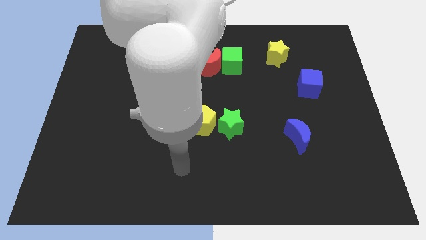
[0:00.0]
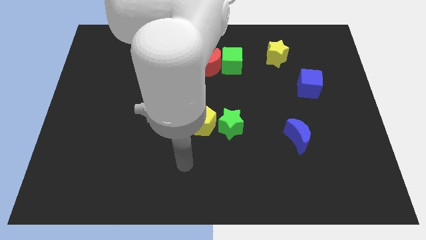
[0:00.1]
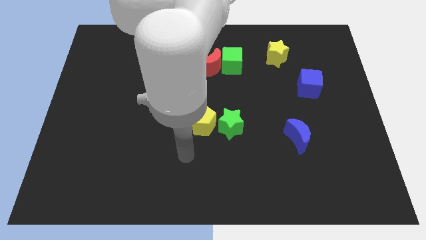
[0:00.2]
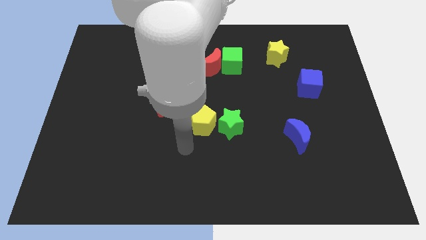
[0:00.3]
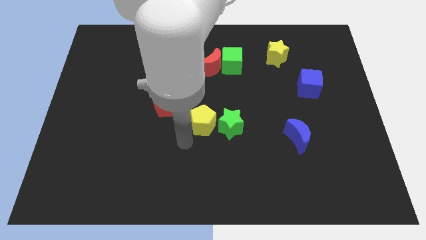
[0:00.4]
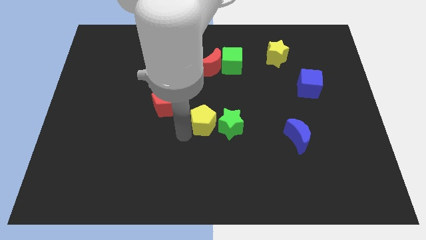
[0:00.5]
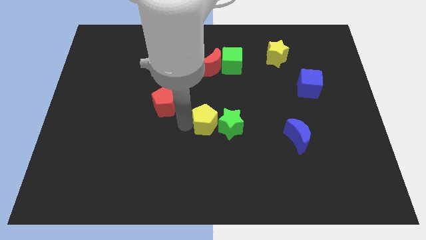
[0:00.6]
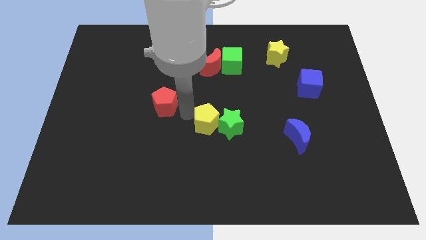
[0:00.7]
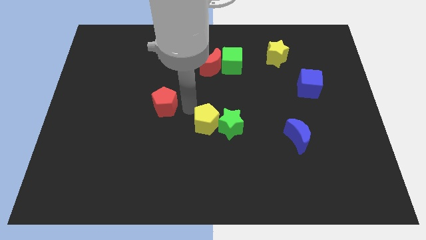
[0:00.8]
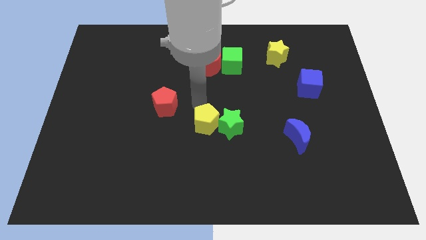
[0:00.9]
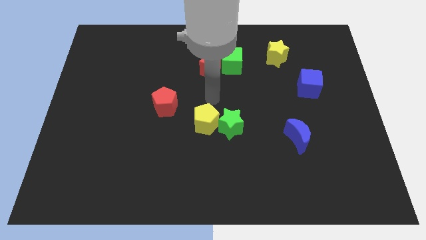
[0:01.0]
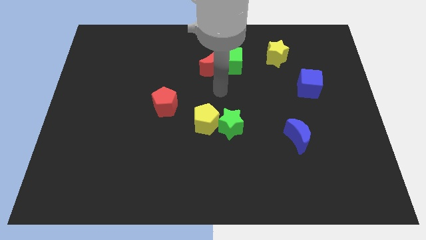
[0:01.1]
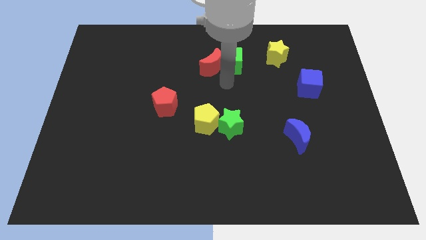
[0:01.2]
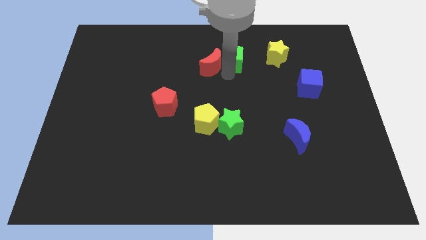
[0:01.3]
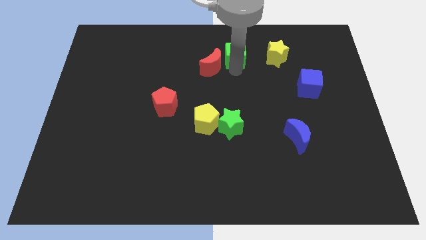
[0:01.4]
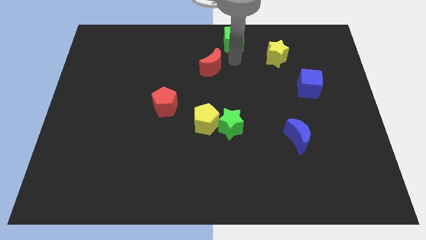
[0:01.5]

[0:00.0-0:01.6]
separate the red moon from the green cube

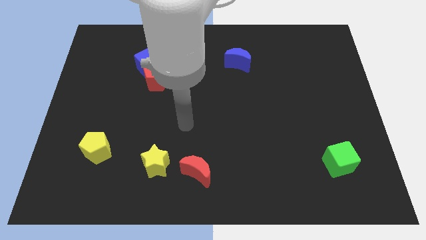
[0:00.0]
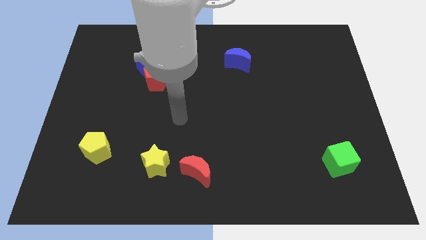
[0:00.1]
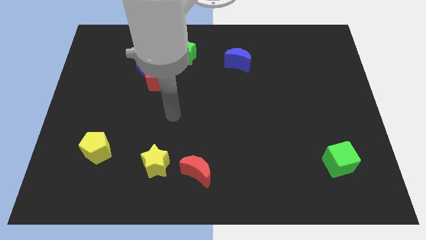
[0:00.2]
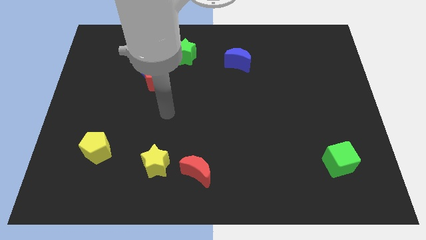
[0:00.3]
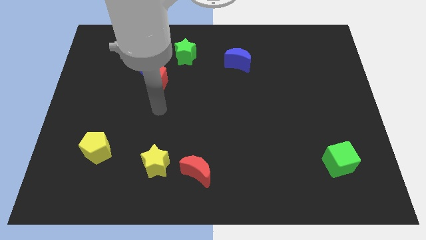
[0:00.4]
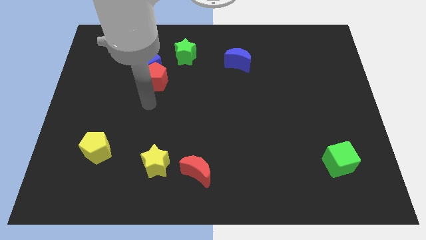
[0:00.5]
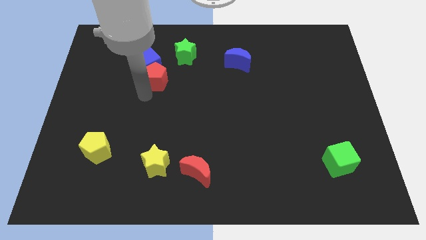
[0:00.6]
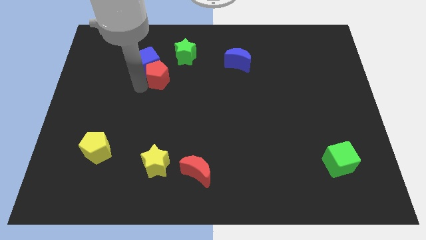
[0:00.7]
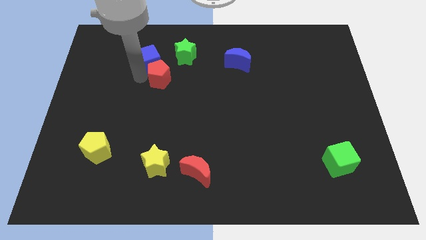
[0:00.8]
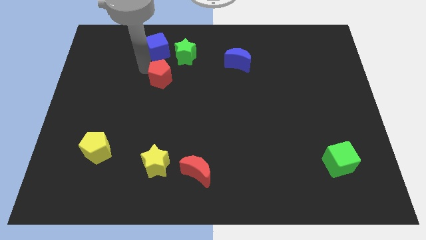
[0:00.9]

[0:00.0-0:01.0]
pull the red pentagon apart from the blue cube

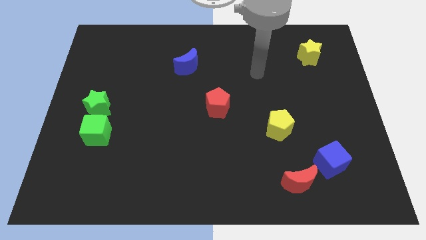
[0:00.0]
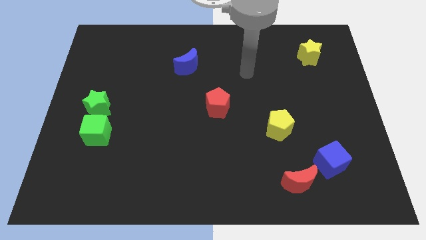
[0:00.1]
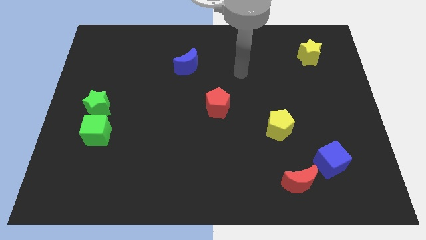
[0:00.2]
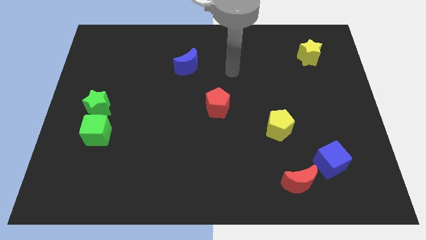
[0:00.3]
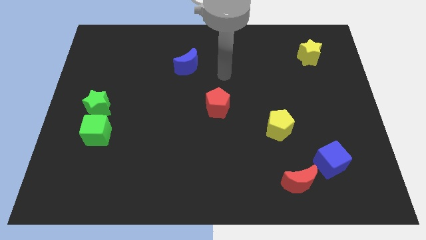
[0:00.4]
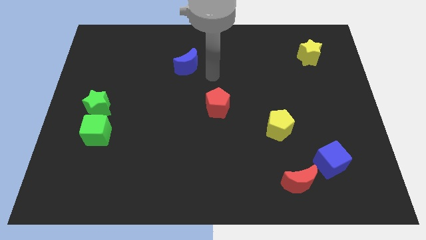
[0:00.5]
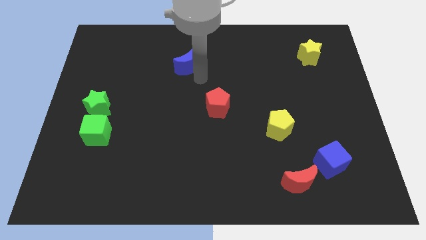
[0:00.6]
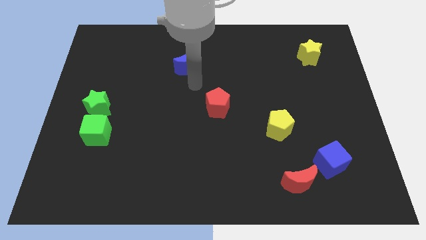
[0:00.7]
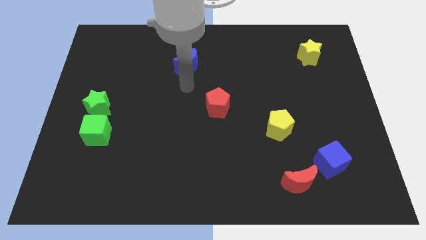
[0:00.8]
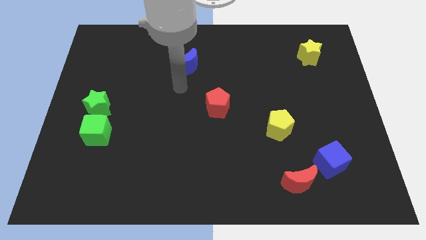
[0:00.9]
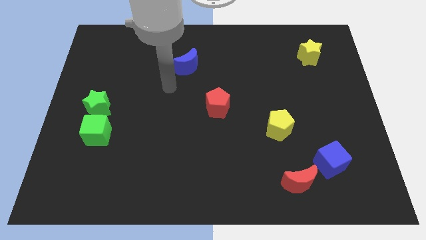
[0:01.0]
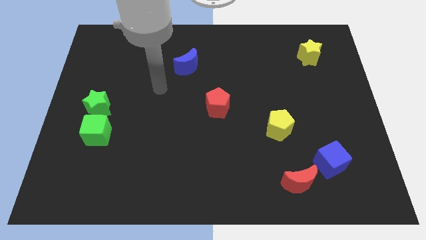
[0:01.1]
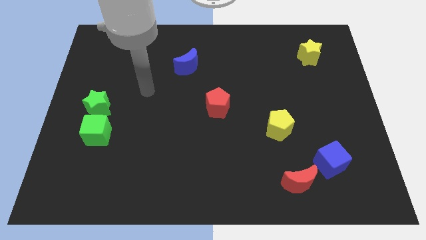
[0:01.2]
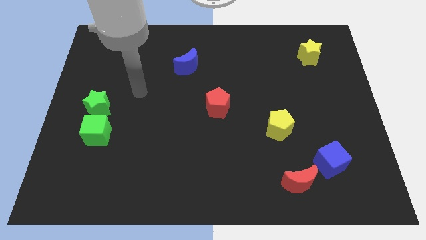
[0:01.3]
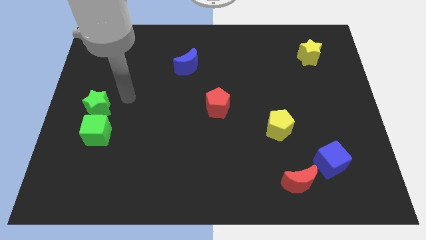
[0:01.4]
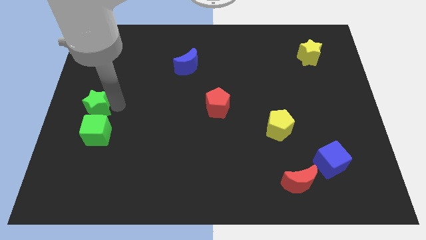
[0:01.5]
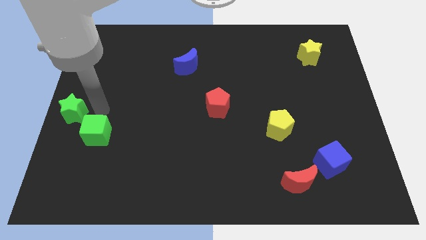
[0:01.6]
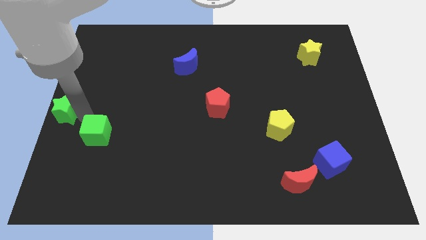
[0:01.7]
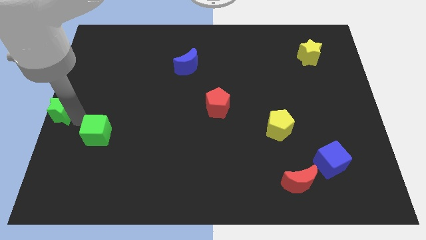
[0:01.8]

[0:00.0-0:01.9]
pull the green cube apart from the green star

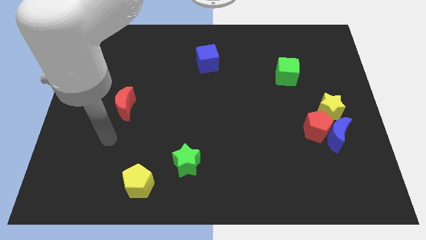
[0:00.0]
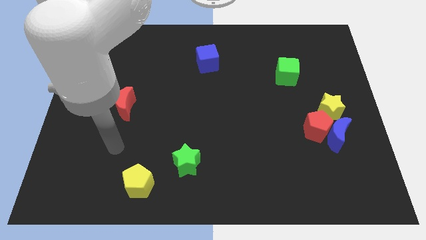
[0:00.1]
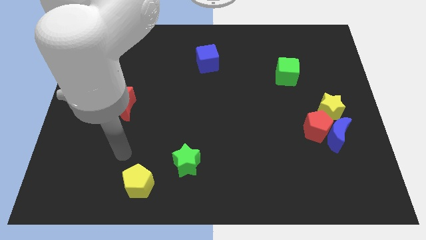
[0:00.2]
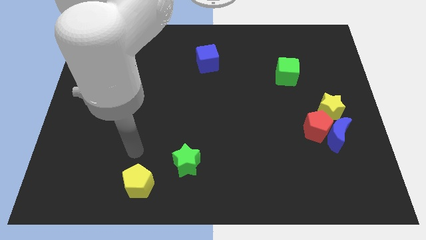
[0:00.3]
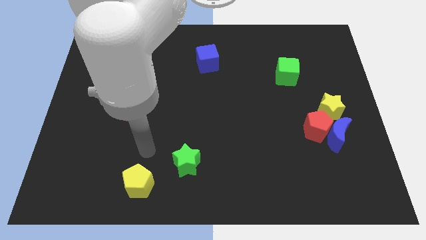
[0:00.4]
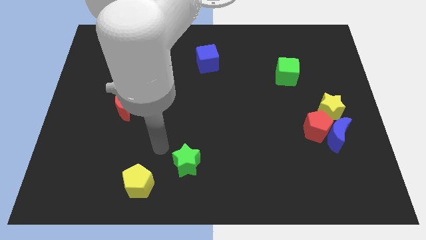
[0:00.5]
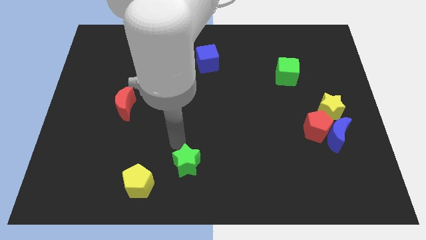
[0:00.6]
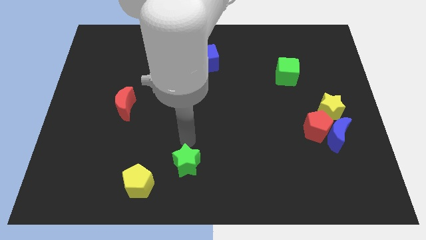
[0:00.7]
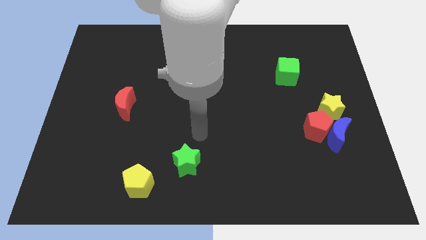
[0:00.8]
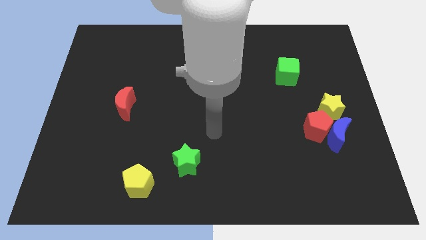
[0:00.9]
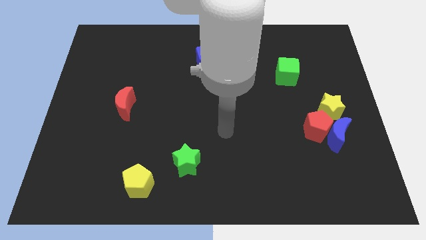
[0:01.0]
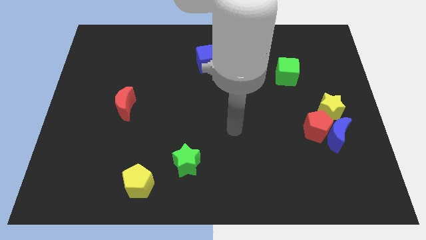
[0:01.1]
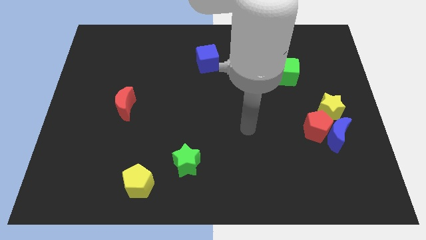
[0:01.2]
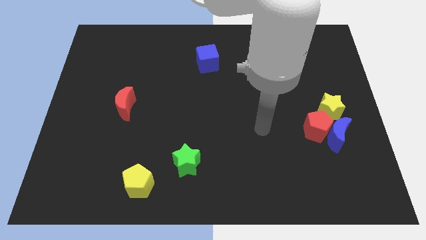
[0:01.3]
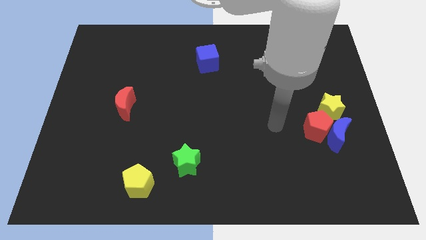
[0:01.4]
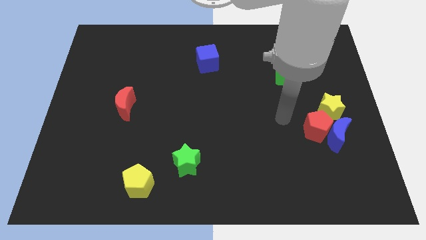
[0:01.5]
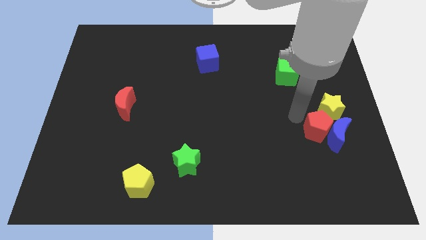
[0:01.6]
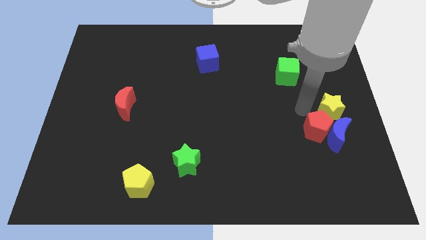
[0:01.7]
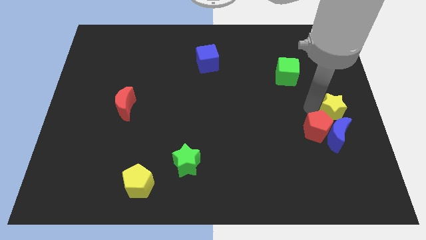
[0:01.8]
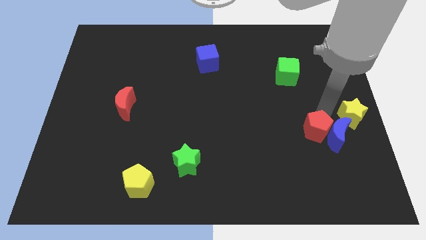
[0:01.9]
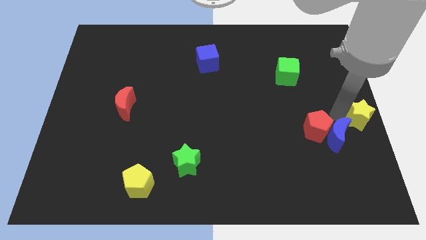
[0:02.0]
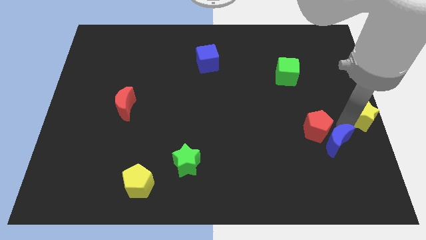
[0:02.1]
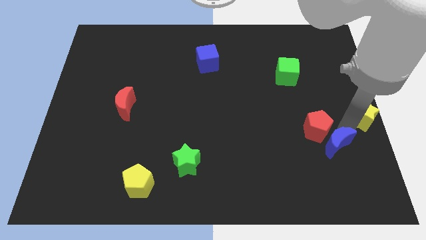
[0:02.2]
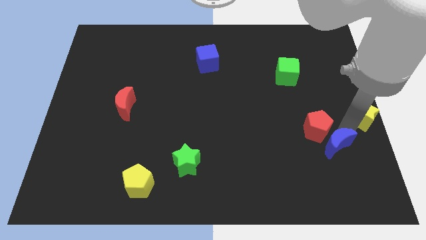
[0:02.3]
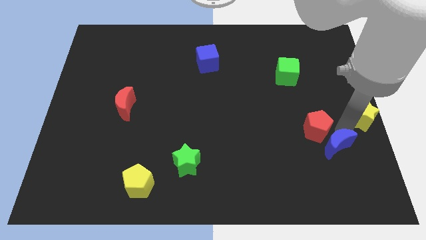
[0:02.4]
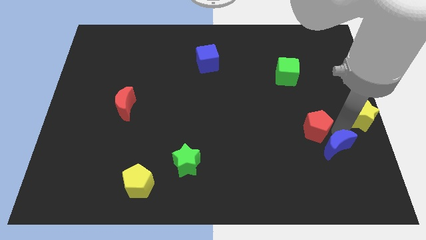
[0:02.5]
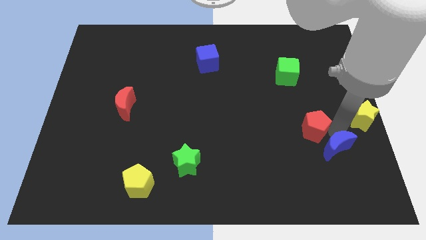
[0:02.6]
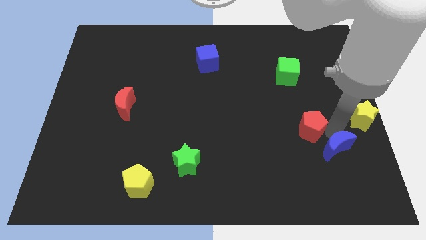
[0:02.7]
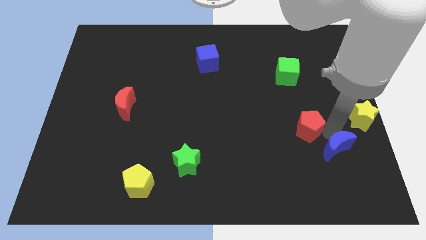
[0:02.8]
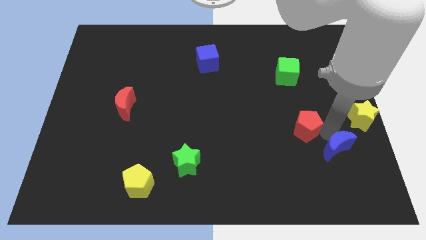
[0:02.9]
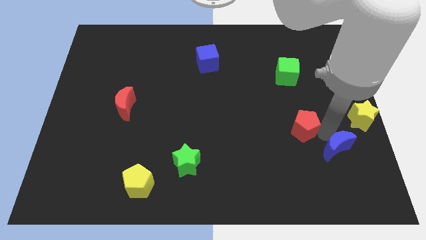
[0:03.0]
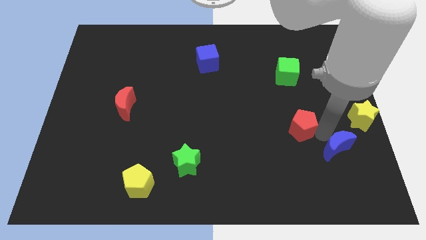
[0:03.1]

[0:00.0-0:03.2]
separate the red pentagon from the blue moon and yellow star

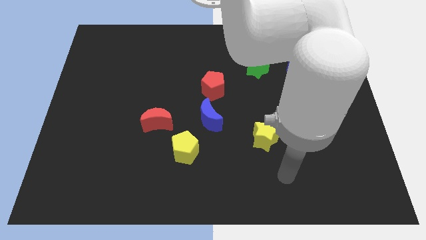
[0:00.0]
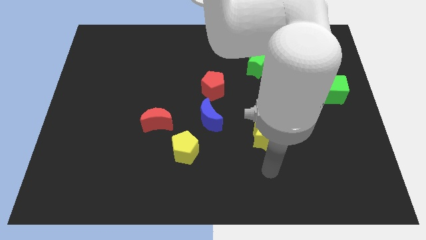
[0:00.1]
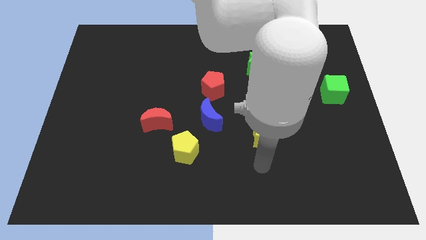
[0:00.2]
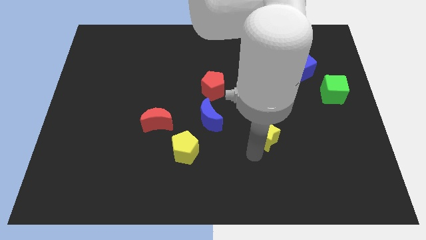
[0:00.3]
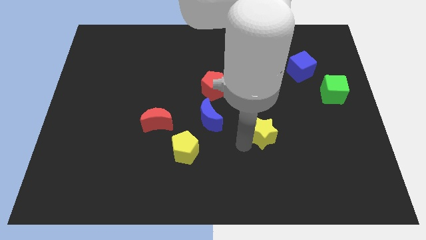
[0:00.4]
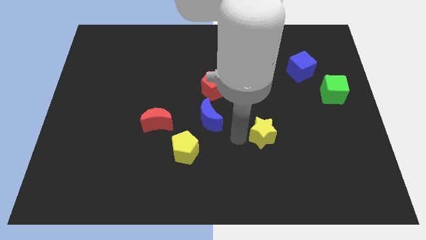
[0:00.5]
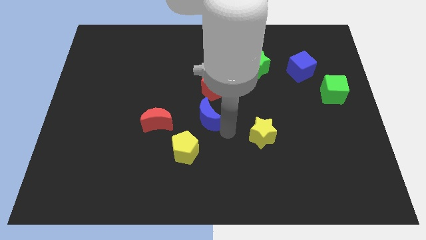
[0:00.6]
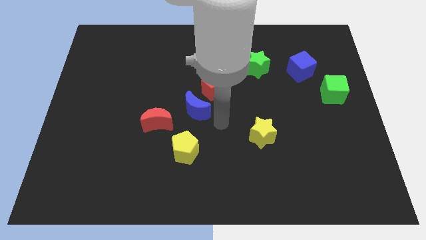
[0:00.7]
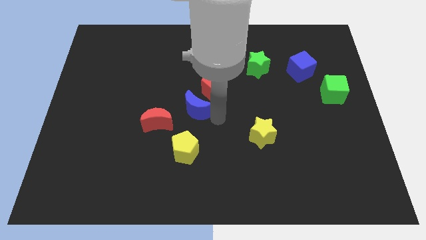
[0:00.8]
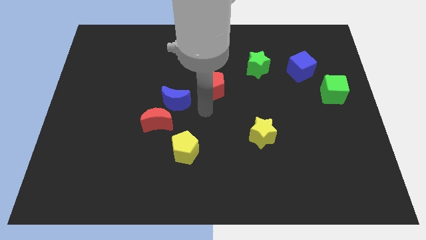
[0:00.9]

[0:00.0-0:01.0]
separate the red pentagon from the blue moon

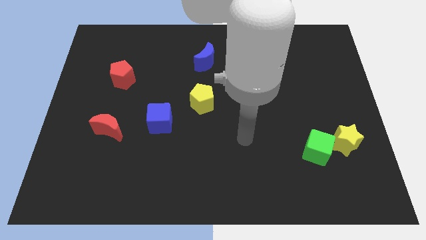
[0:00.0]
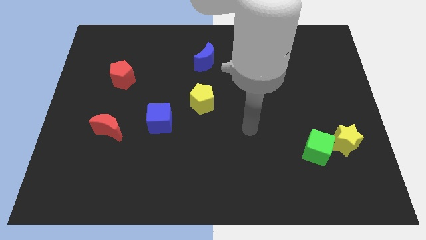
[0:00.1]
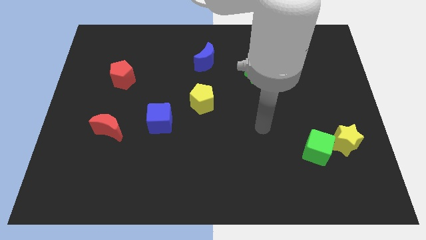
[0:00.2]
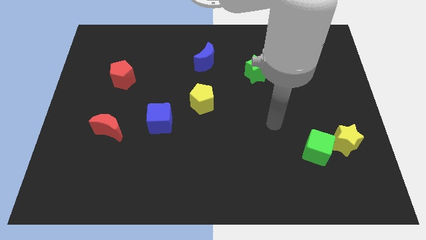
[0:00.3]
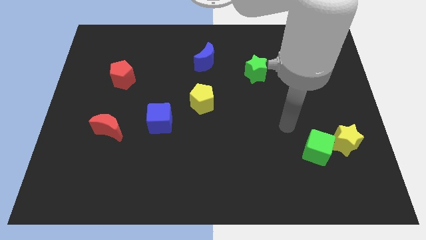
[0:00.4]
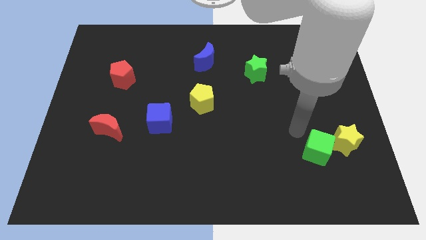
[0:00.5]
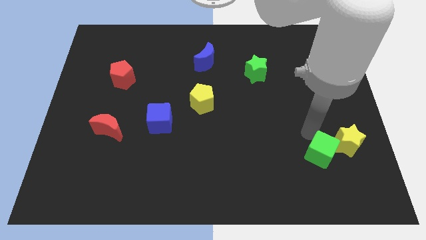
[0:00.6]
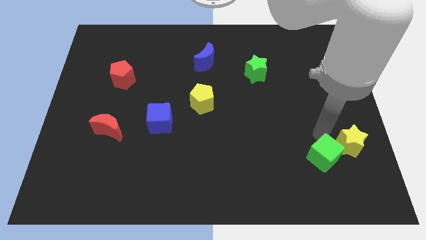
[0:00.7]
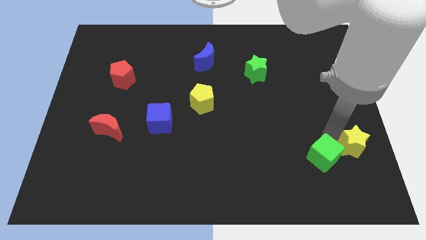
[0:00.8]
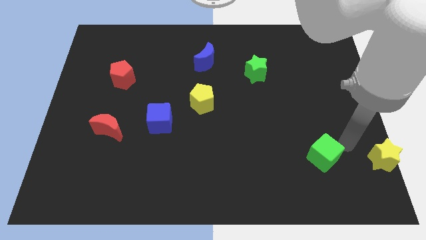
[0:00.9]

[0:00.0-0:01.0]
move the green cube away from the yellow star
